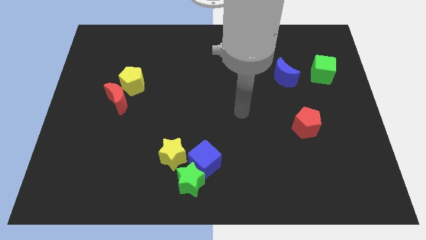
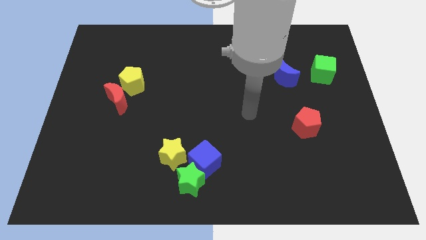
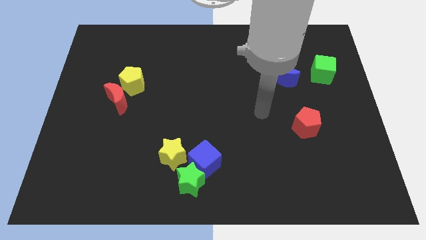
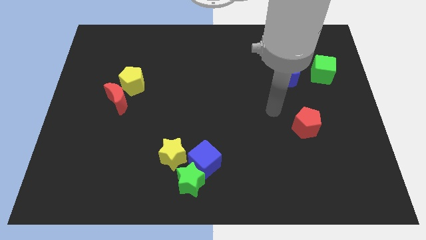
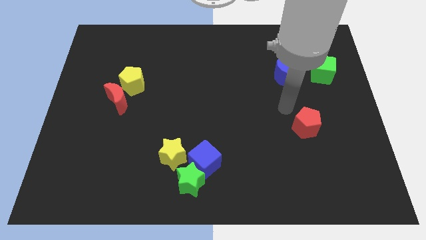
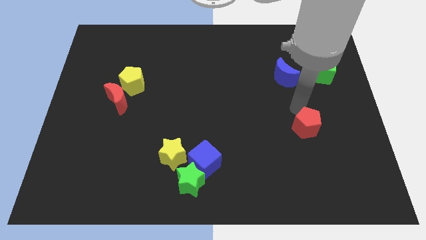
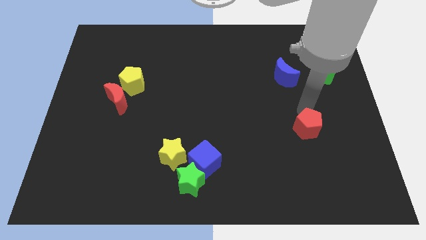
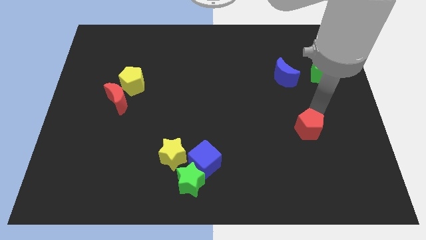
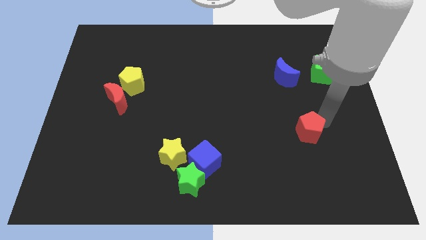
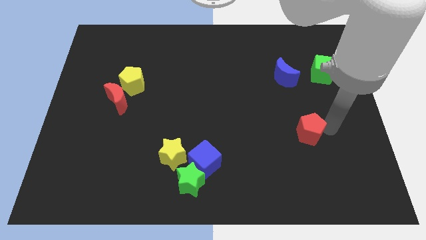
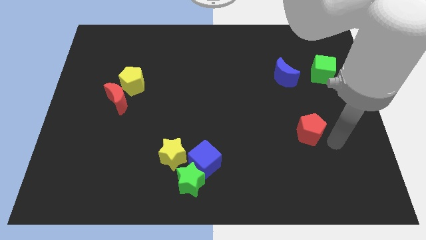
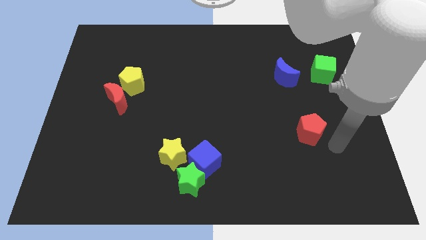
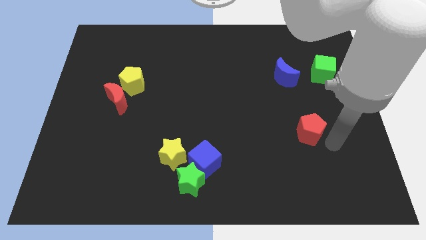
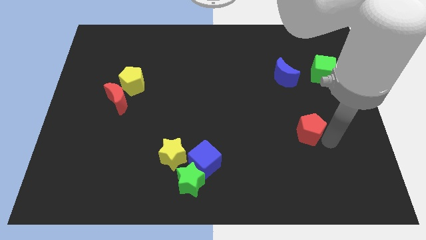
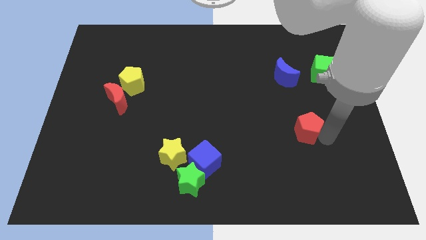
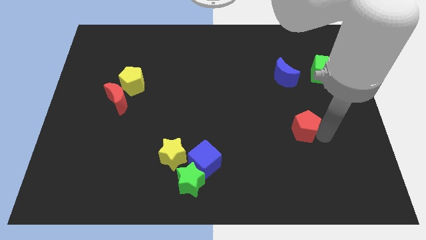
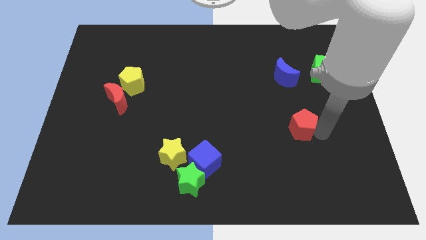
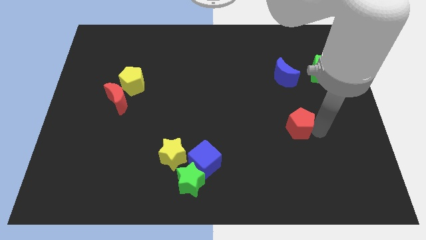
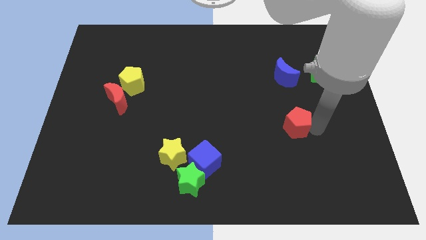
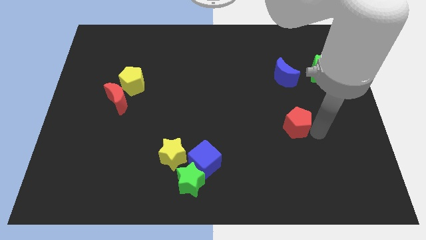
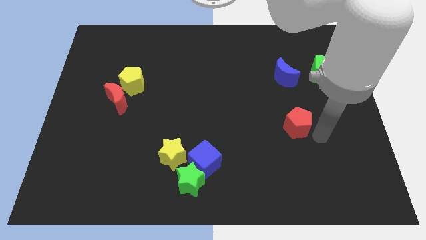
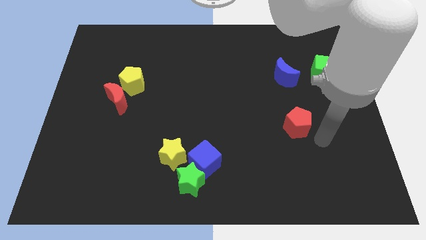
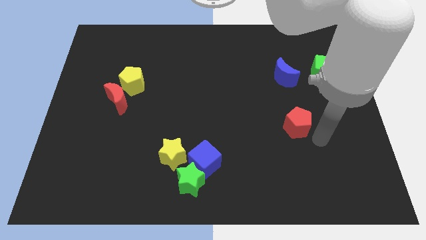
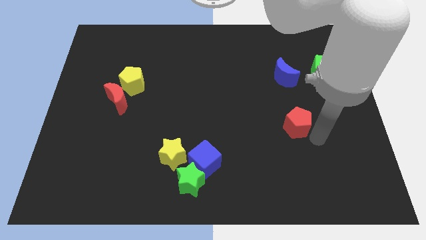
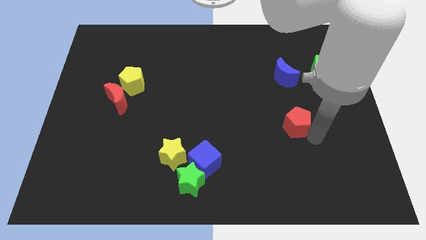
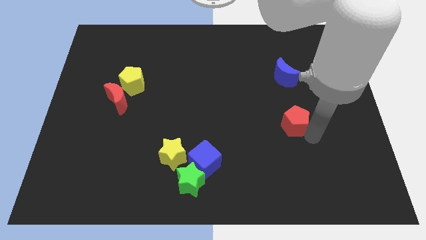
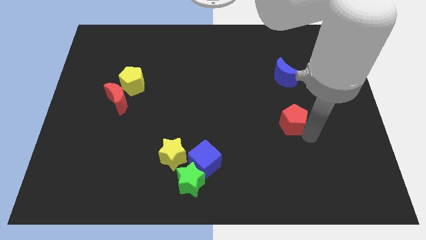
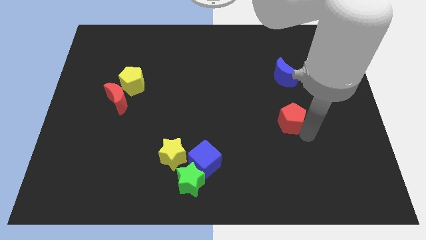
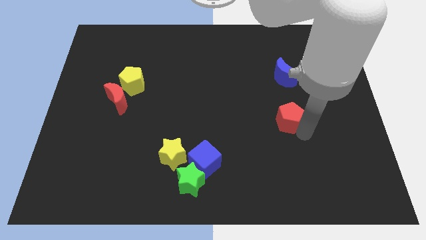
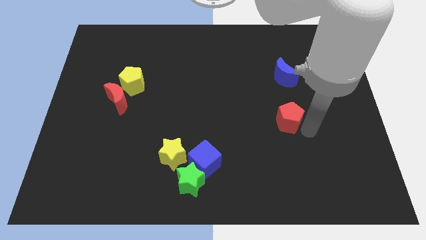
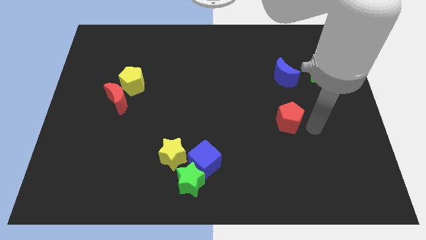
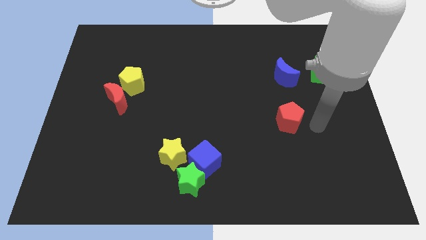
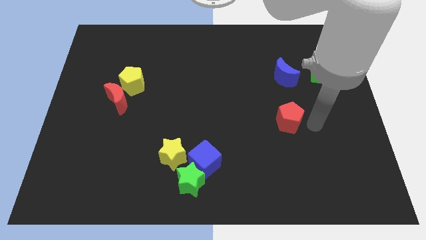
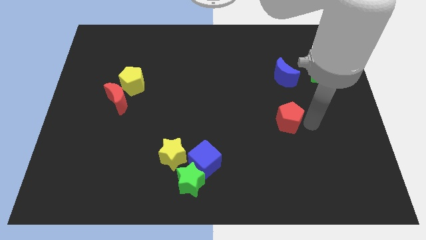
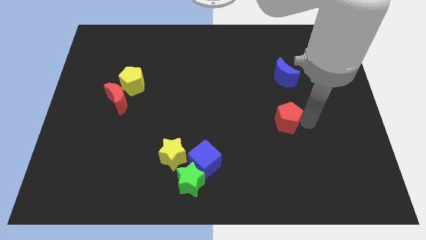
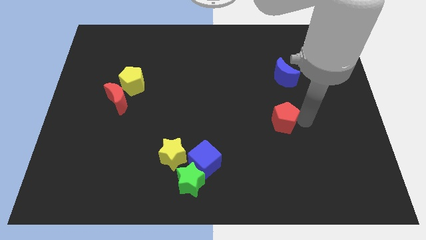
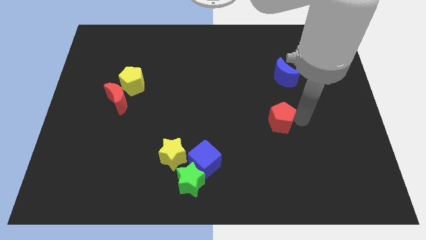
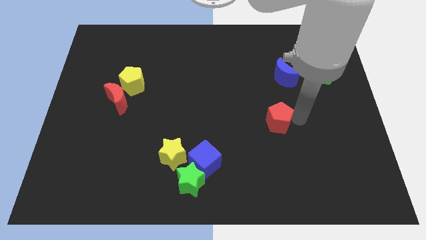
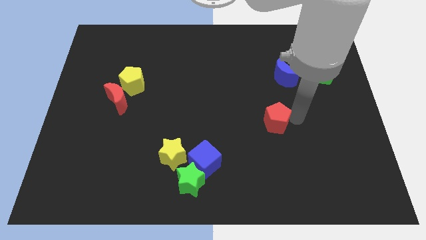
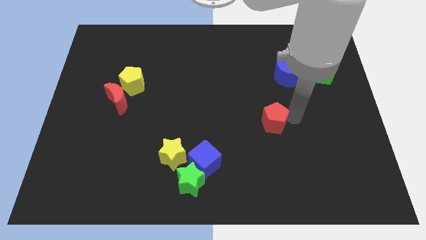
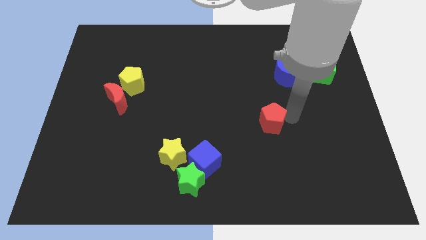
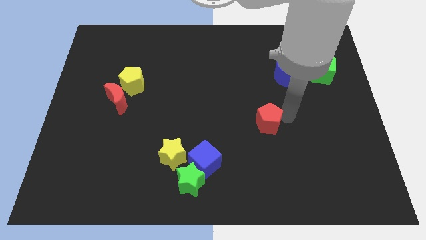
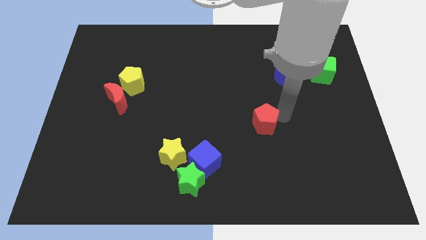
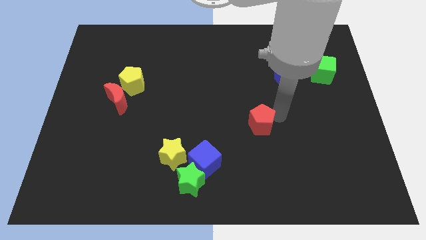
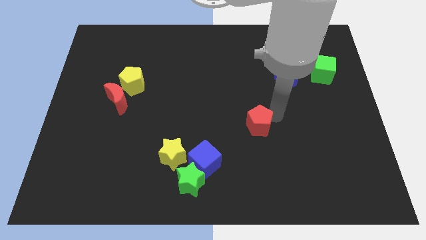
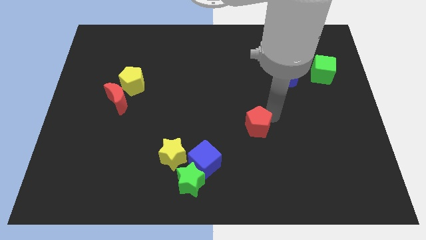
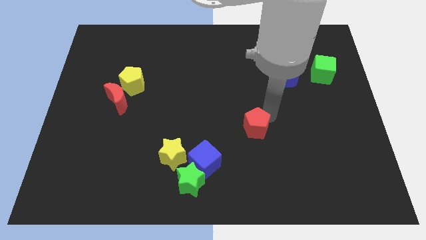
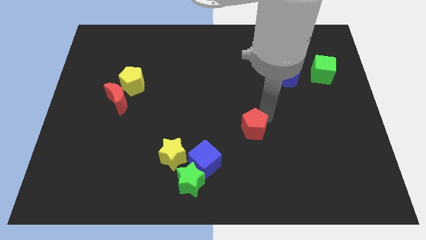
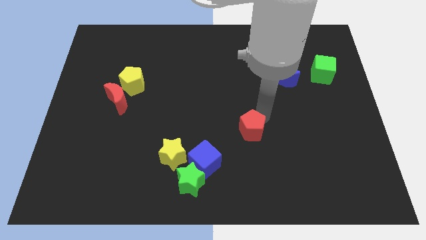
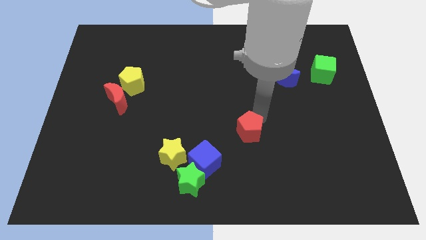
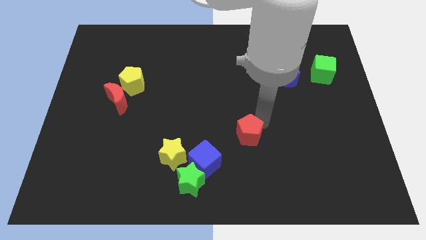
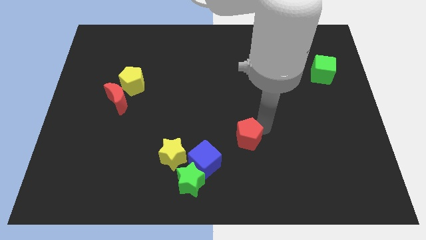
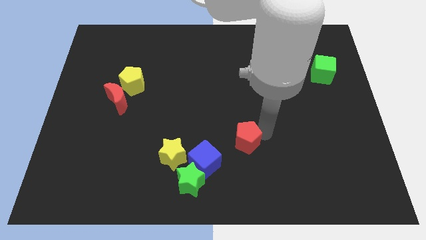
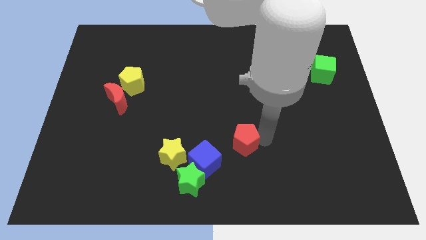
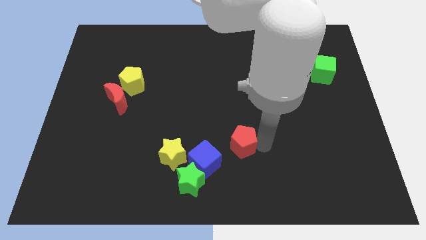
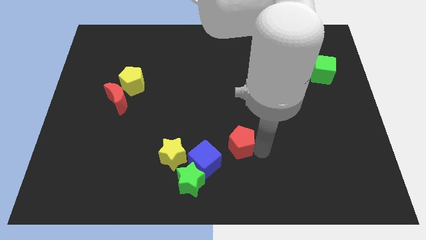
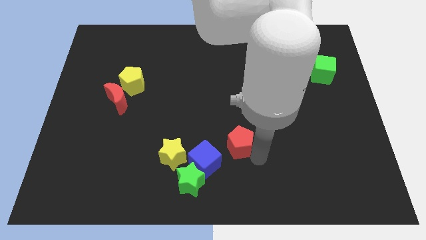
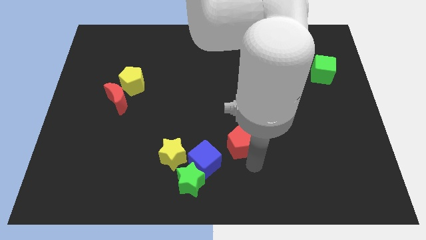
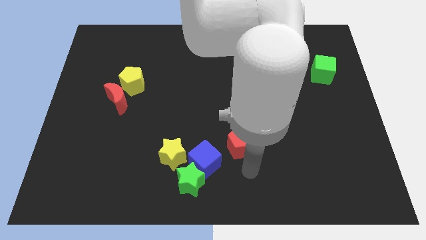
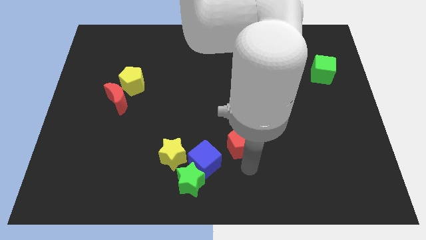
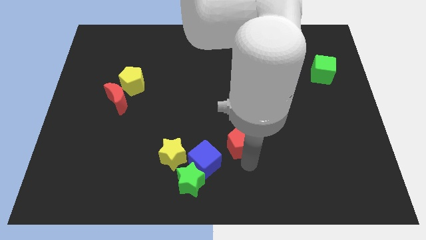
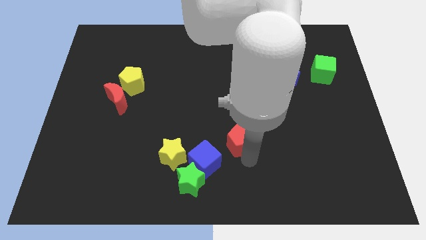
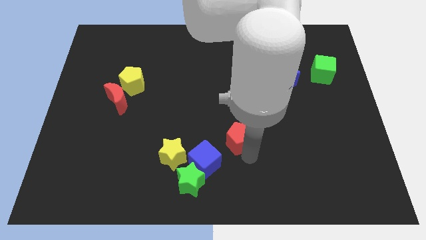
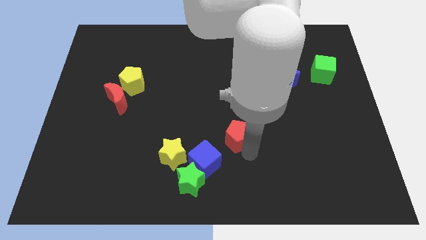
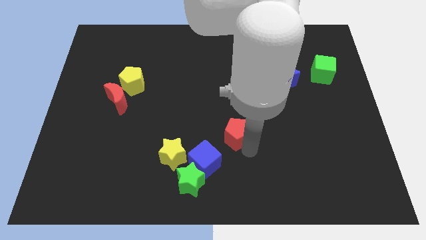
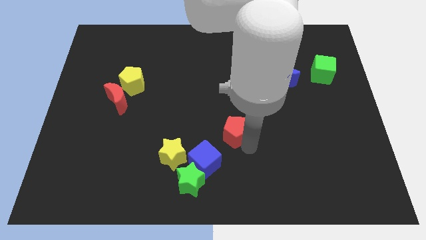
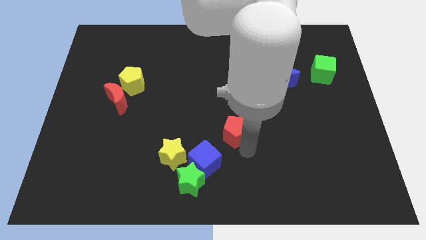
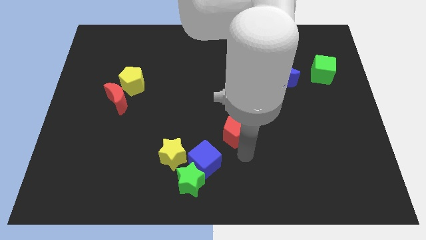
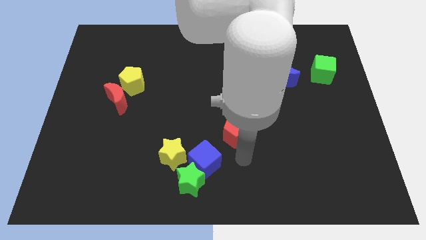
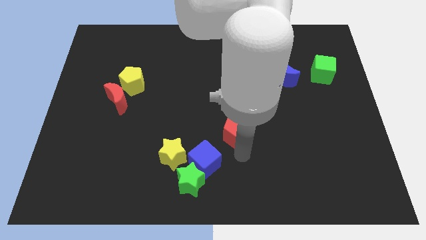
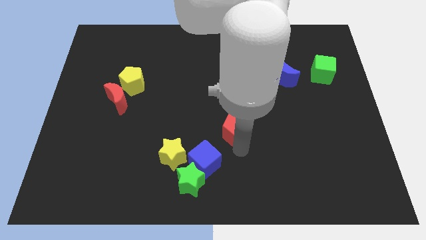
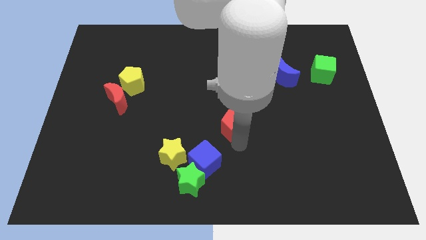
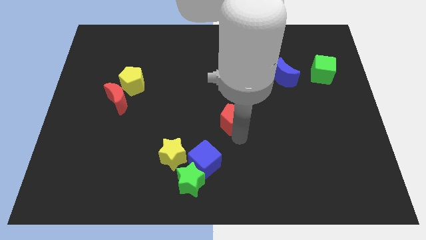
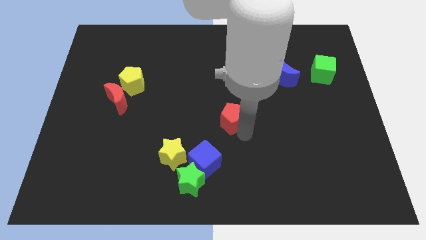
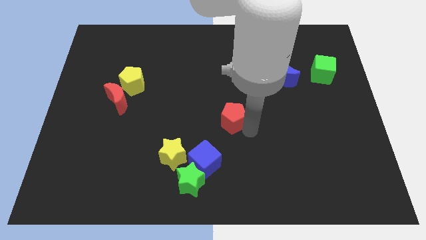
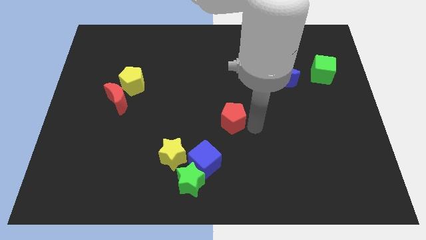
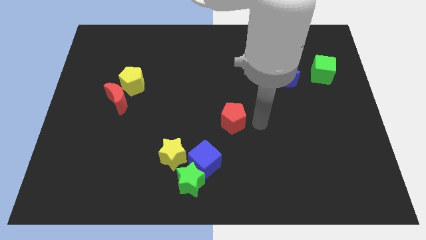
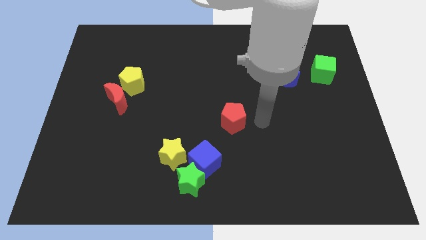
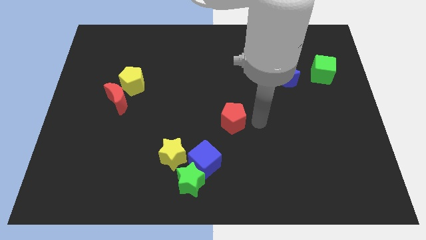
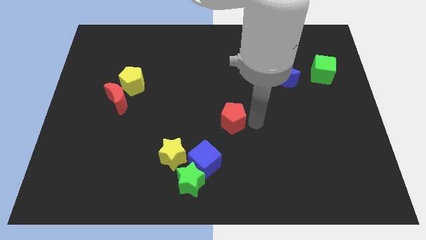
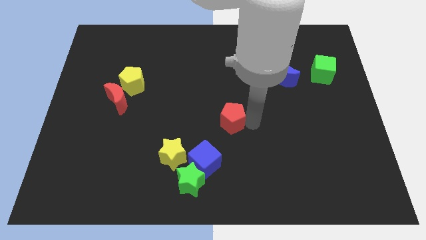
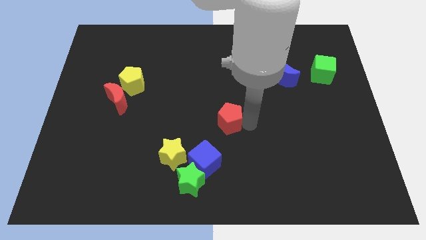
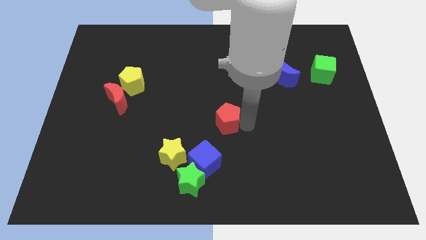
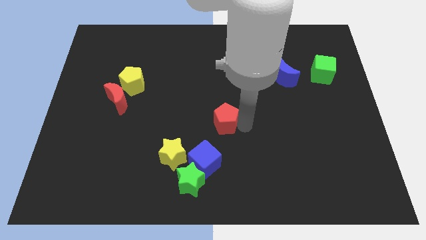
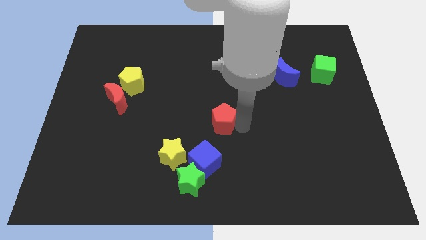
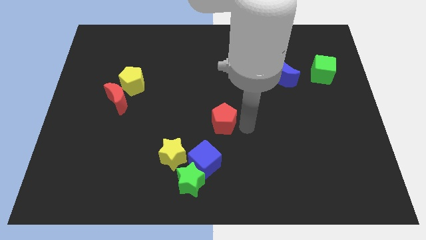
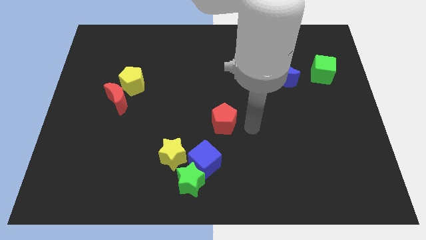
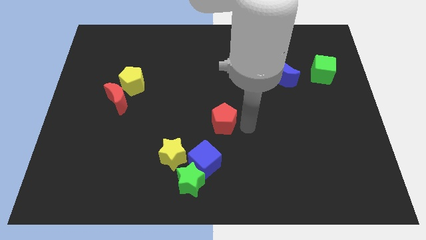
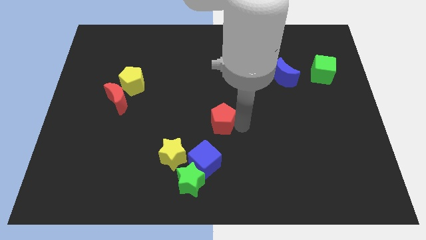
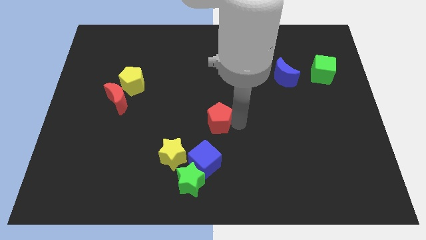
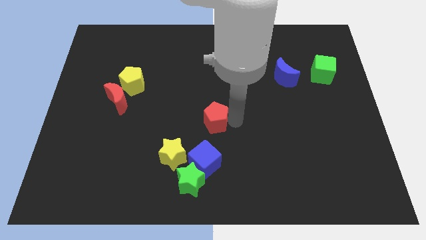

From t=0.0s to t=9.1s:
move the red pentagon left
